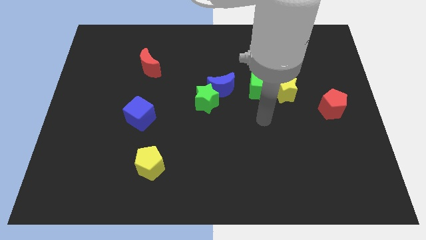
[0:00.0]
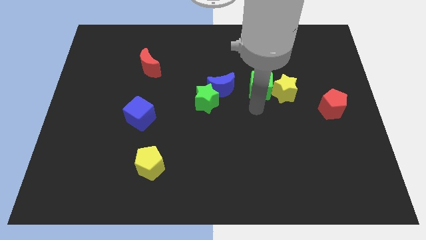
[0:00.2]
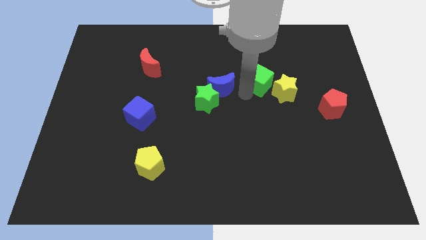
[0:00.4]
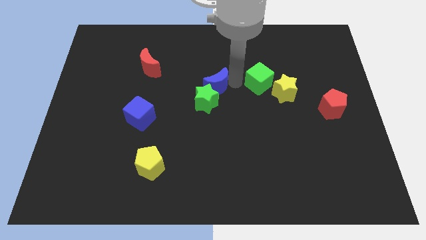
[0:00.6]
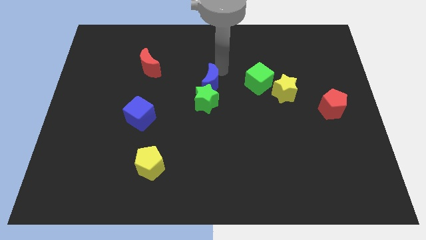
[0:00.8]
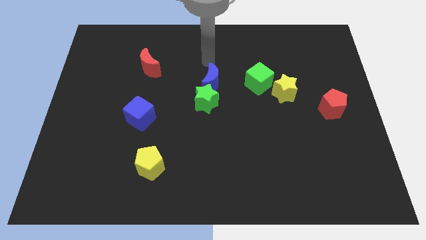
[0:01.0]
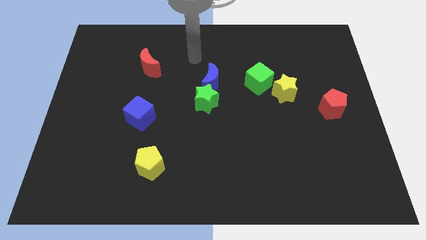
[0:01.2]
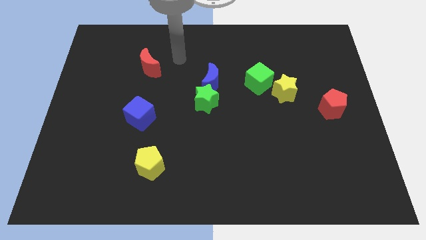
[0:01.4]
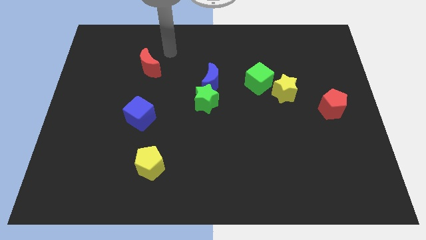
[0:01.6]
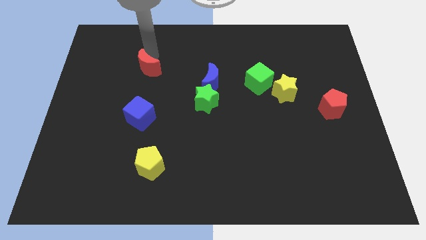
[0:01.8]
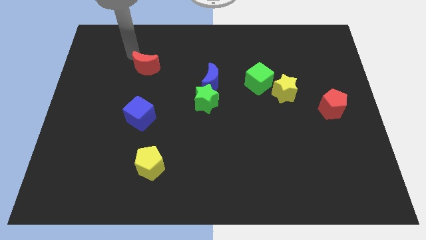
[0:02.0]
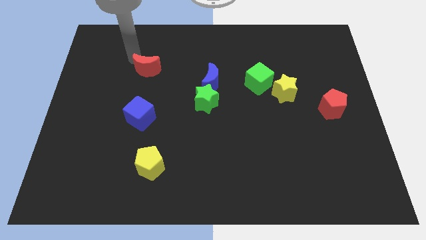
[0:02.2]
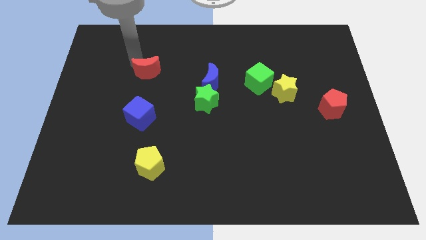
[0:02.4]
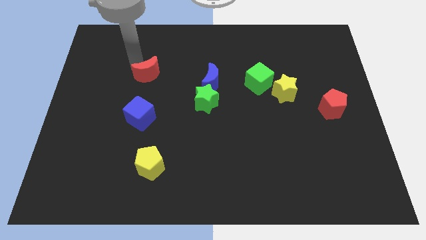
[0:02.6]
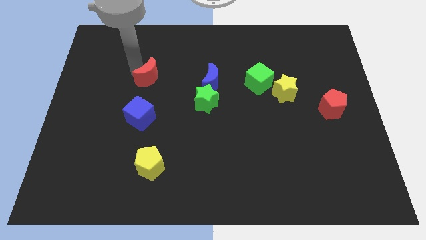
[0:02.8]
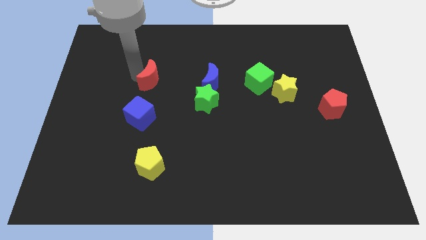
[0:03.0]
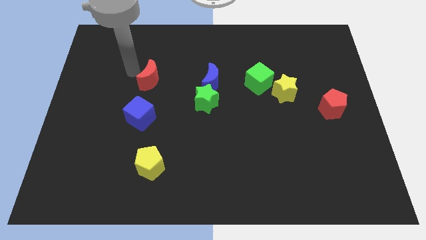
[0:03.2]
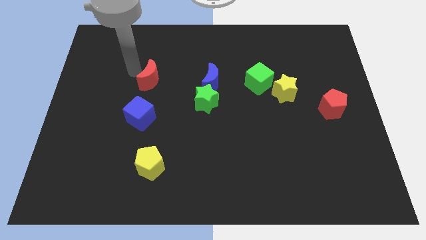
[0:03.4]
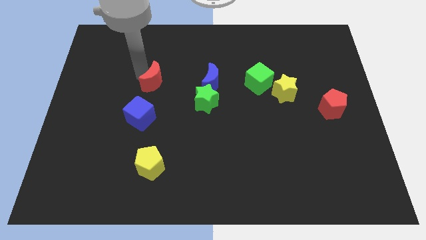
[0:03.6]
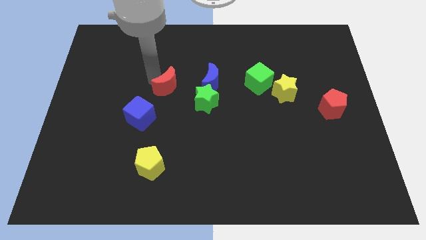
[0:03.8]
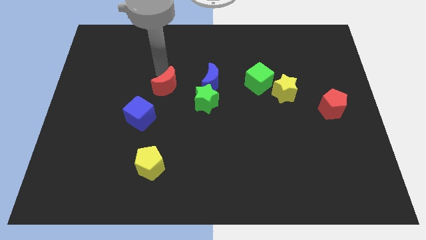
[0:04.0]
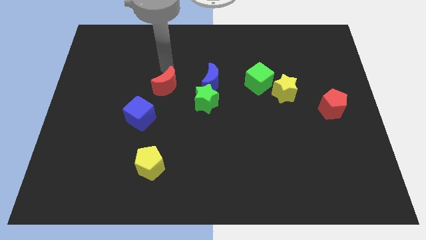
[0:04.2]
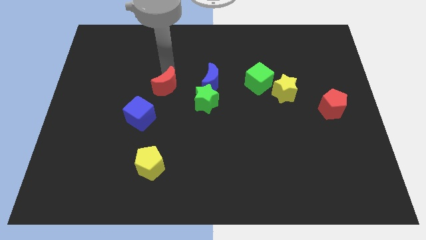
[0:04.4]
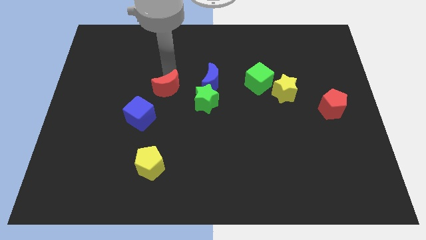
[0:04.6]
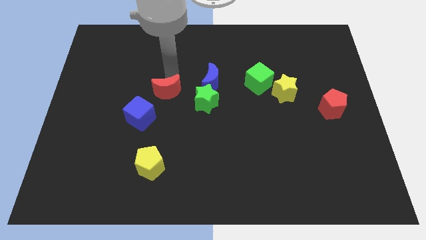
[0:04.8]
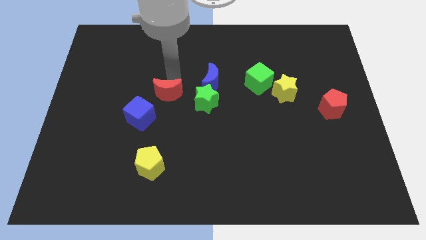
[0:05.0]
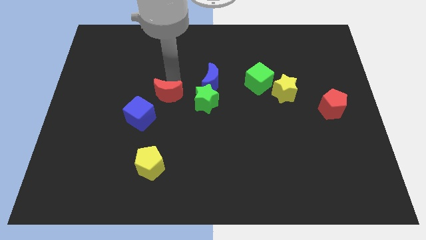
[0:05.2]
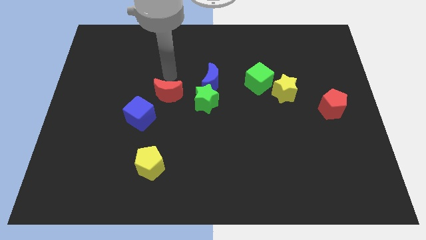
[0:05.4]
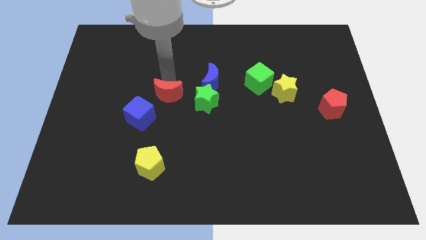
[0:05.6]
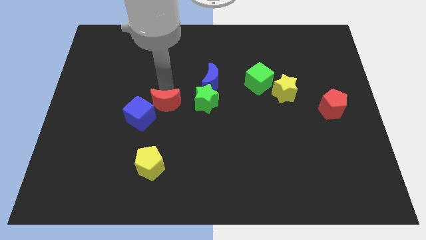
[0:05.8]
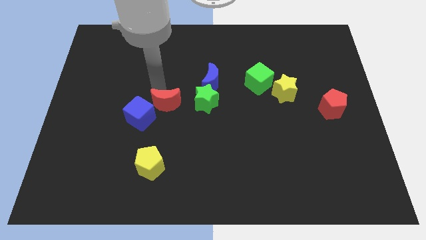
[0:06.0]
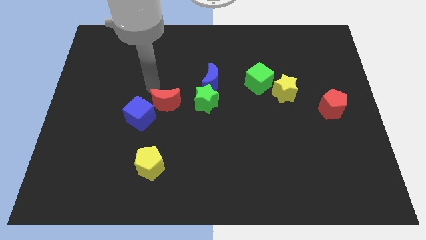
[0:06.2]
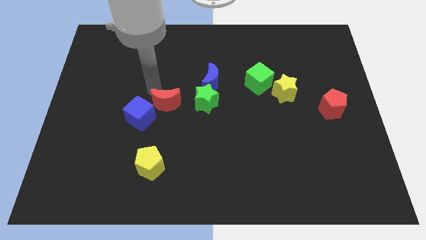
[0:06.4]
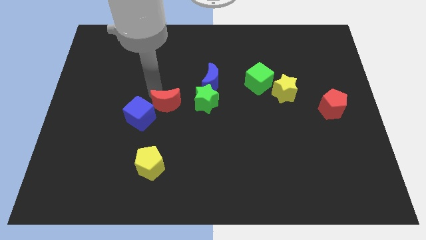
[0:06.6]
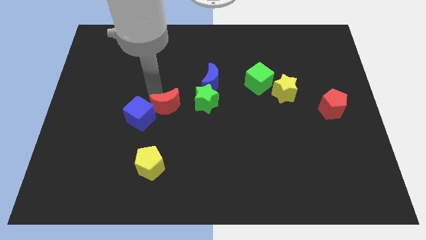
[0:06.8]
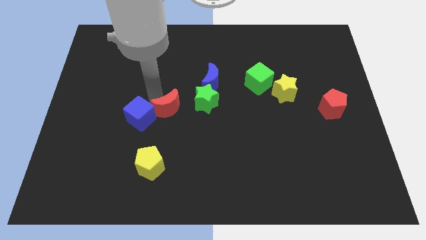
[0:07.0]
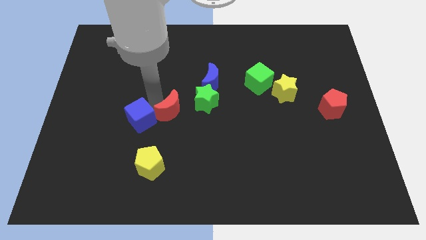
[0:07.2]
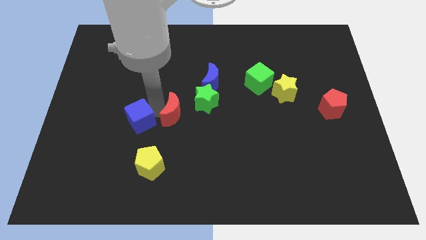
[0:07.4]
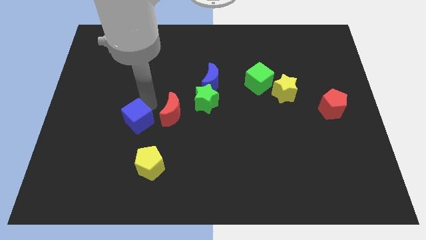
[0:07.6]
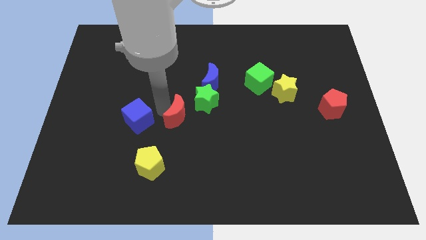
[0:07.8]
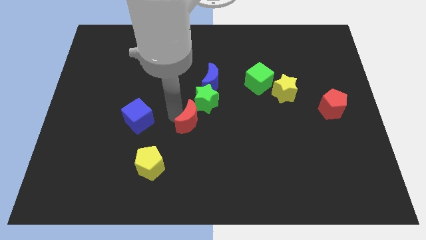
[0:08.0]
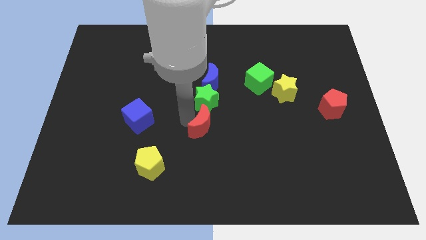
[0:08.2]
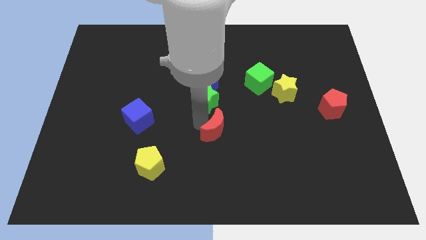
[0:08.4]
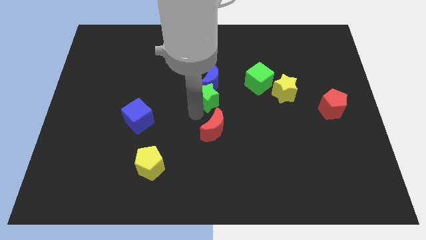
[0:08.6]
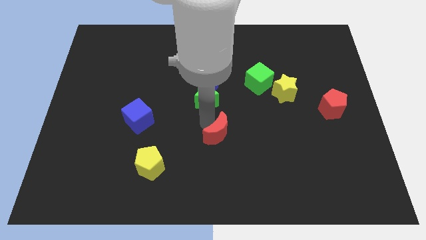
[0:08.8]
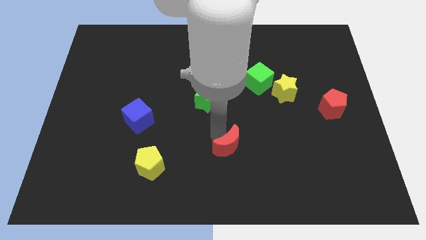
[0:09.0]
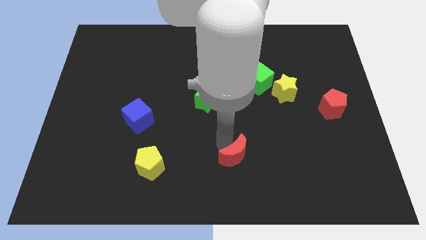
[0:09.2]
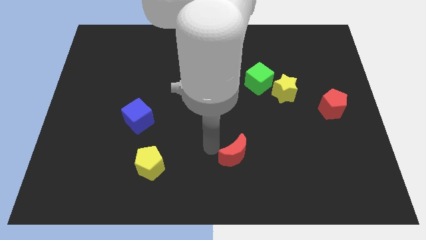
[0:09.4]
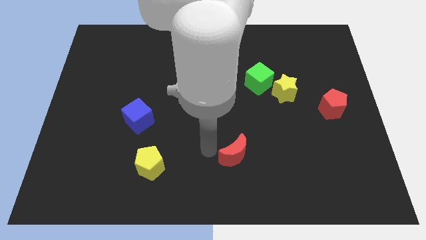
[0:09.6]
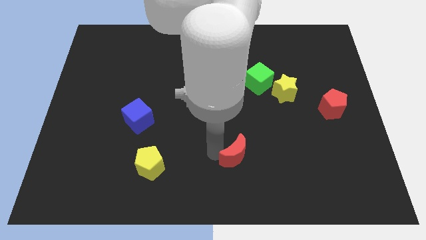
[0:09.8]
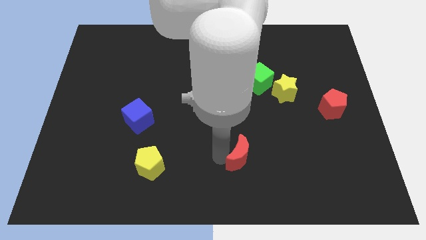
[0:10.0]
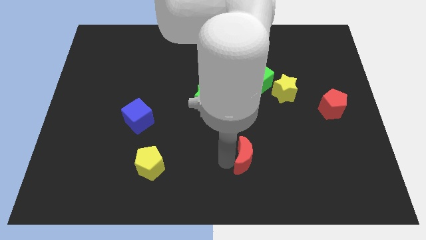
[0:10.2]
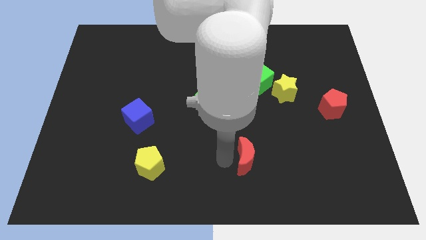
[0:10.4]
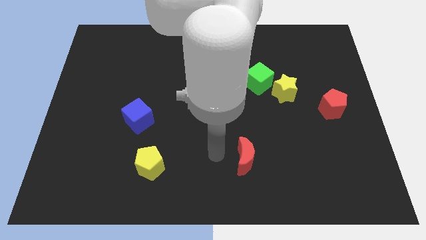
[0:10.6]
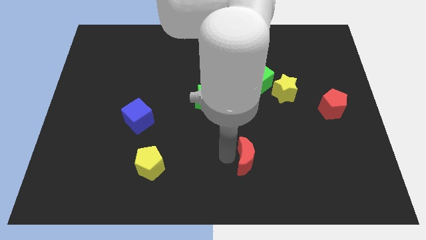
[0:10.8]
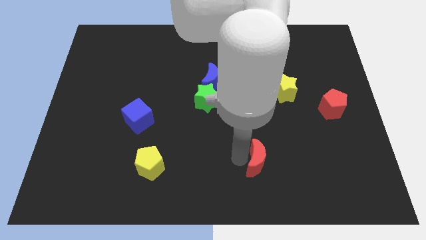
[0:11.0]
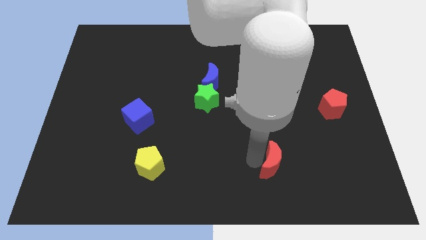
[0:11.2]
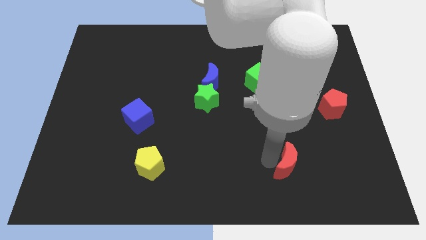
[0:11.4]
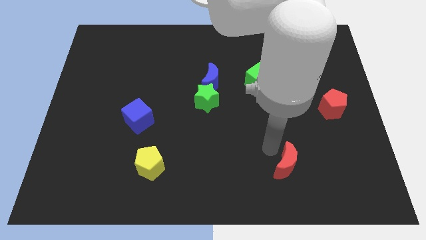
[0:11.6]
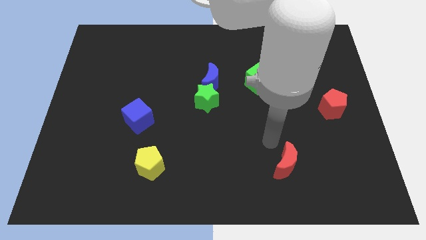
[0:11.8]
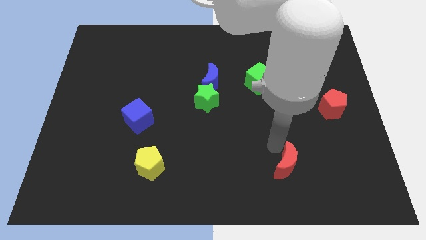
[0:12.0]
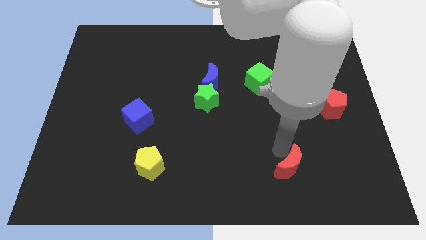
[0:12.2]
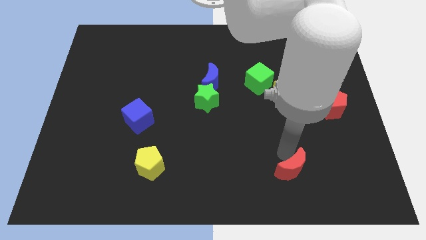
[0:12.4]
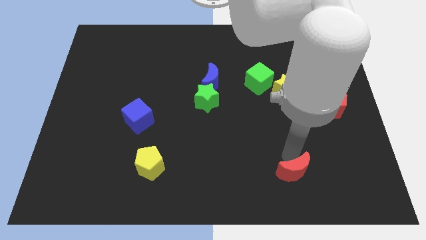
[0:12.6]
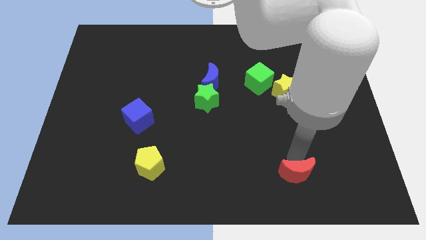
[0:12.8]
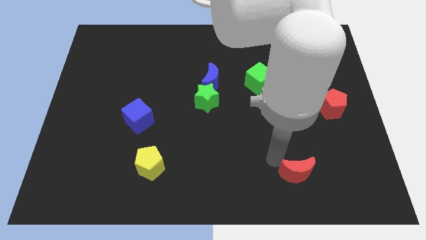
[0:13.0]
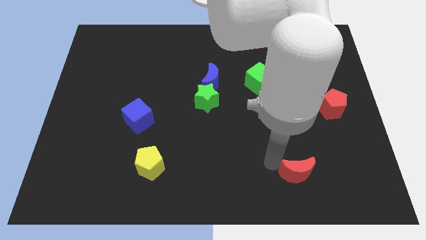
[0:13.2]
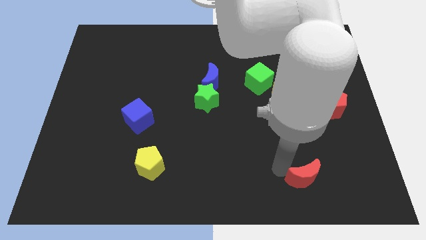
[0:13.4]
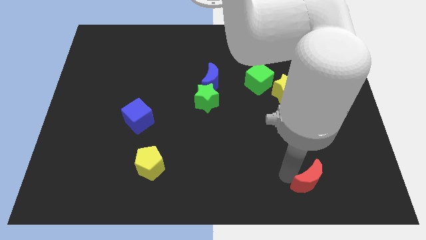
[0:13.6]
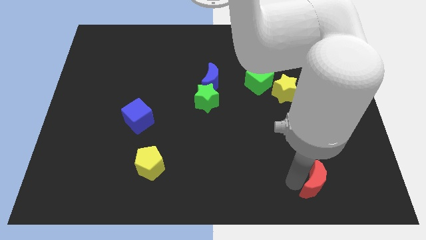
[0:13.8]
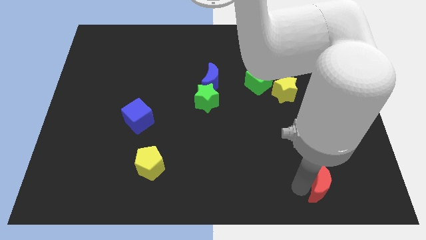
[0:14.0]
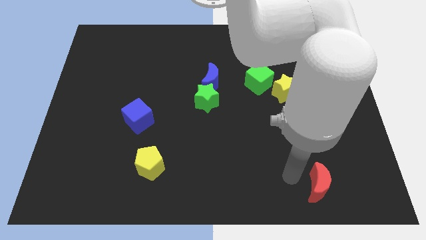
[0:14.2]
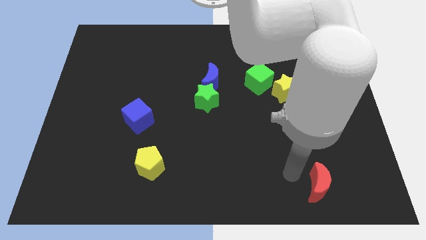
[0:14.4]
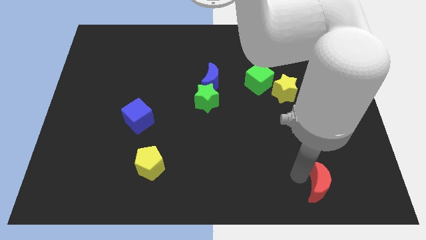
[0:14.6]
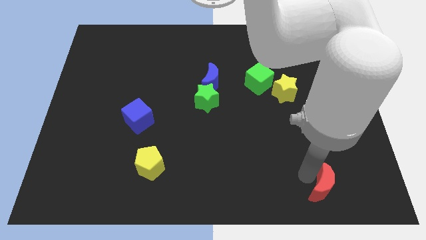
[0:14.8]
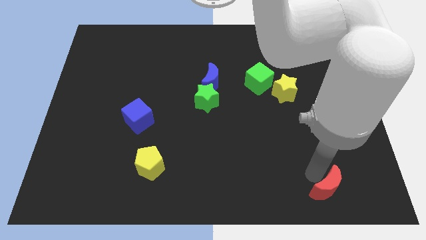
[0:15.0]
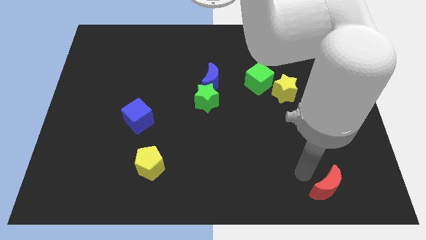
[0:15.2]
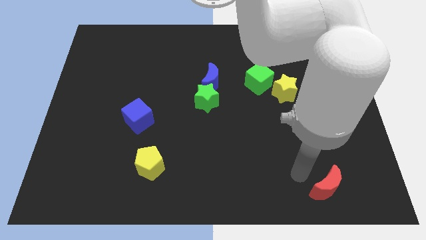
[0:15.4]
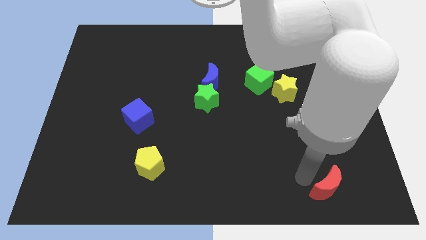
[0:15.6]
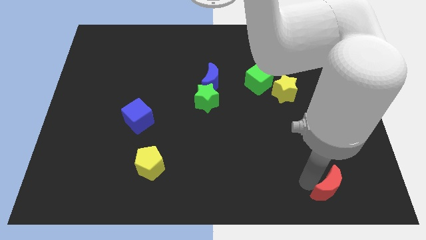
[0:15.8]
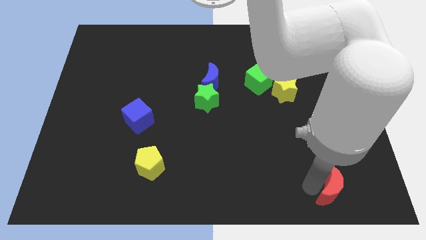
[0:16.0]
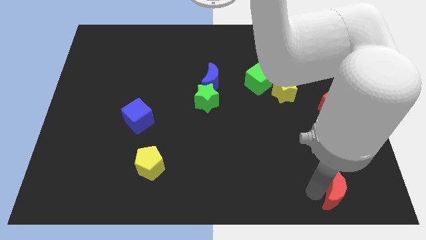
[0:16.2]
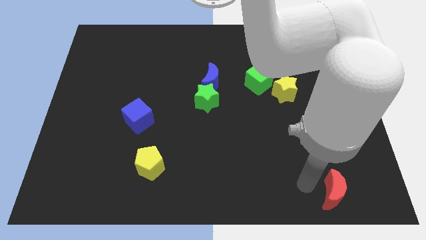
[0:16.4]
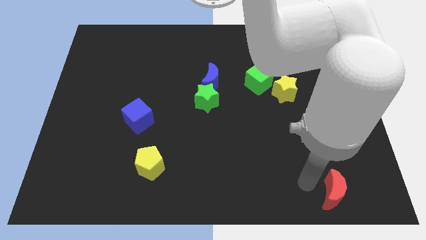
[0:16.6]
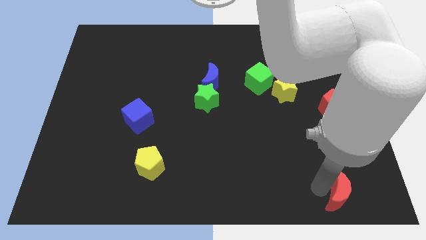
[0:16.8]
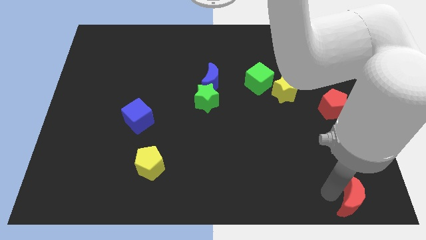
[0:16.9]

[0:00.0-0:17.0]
slide the red moon to the bottom right
